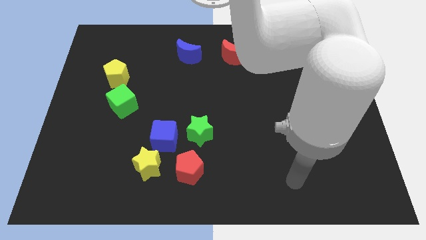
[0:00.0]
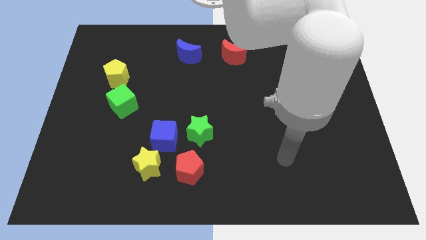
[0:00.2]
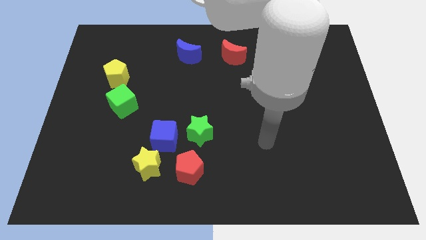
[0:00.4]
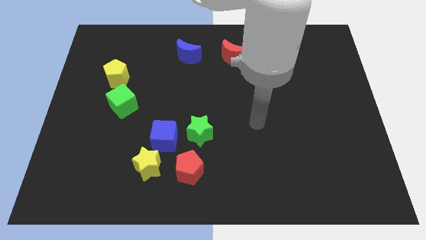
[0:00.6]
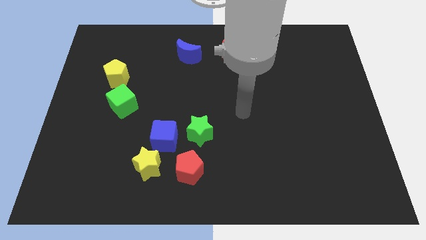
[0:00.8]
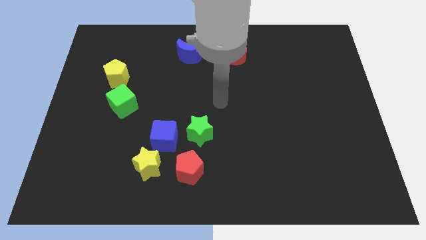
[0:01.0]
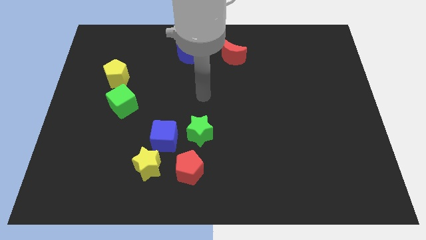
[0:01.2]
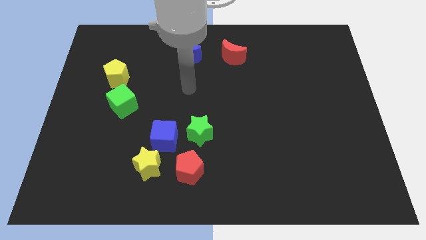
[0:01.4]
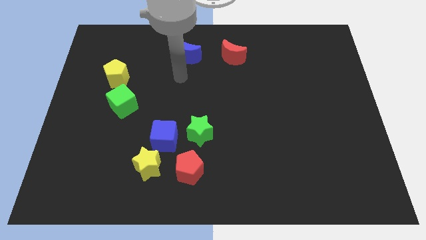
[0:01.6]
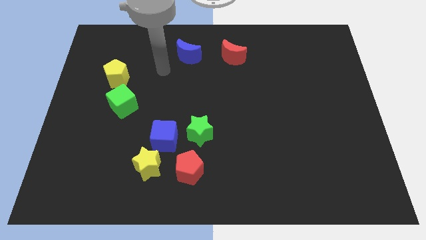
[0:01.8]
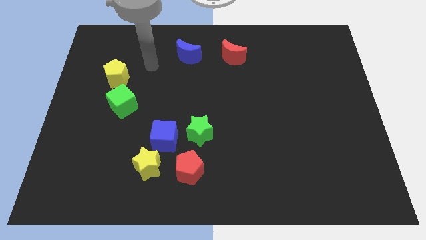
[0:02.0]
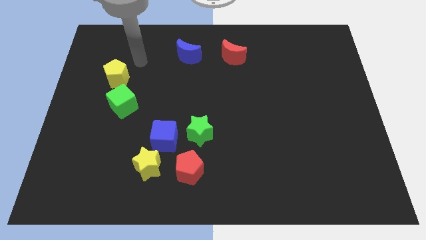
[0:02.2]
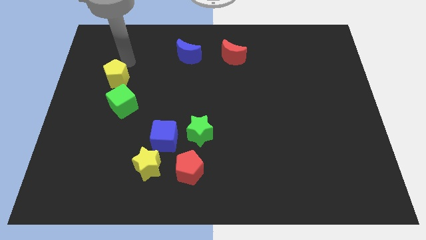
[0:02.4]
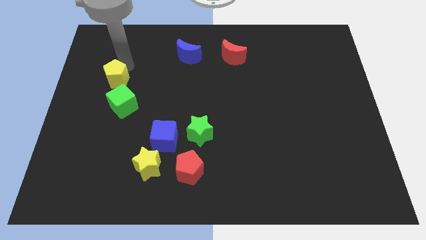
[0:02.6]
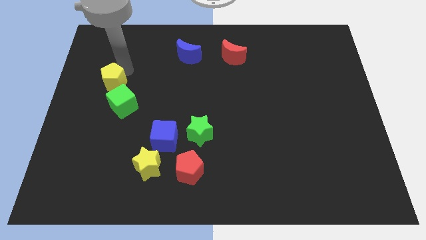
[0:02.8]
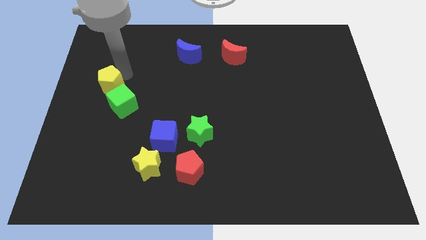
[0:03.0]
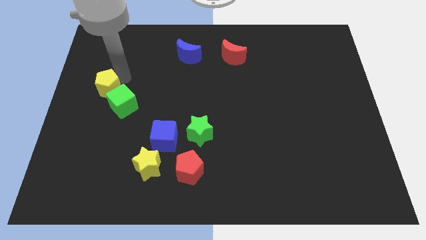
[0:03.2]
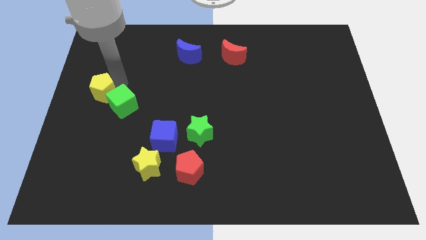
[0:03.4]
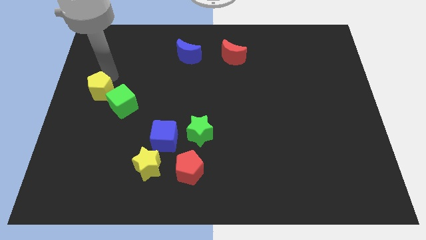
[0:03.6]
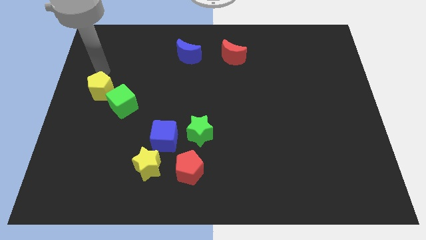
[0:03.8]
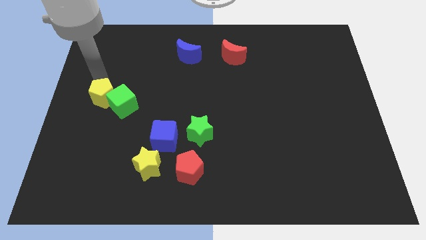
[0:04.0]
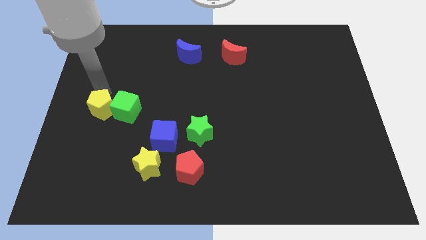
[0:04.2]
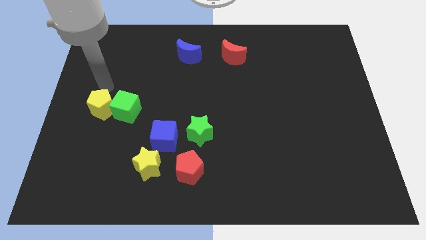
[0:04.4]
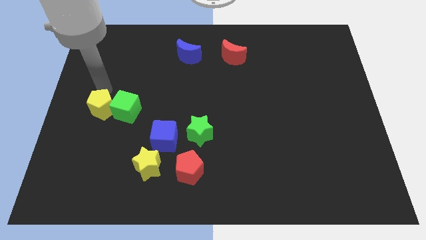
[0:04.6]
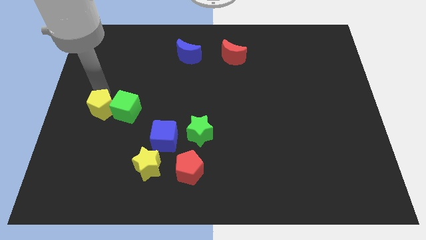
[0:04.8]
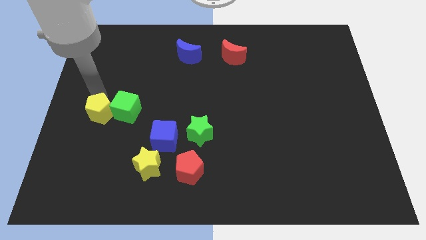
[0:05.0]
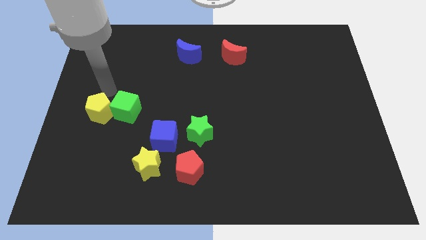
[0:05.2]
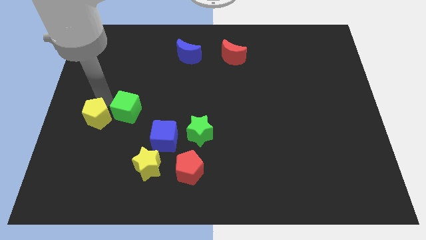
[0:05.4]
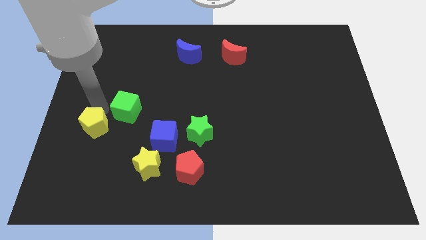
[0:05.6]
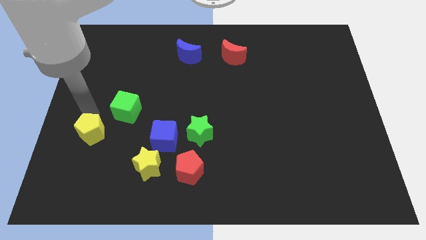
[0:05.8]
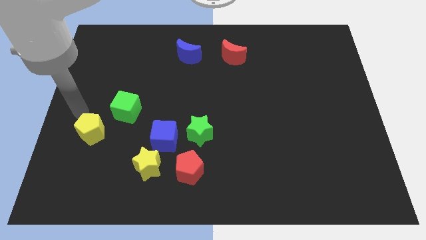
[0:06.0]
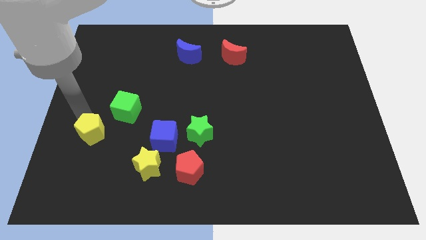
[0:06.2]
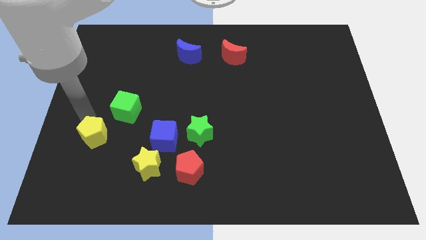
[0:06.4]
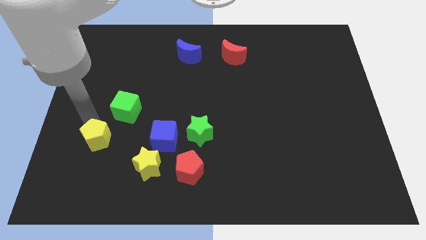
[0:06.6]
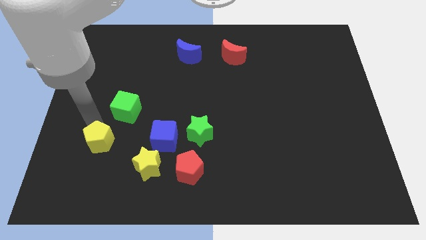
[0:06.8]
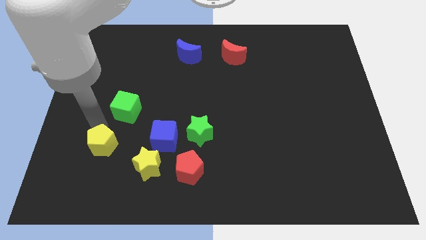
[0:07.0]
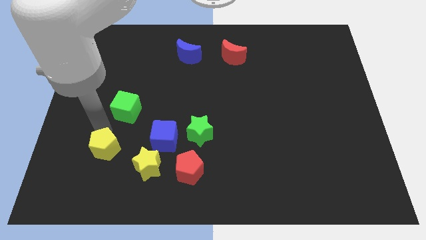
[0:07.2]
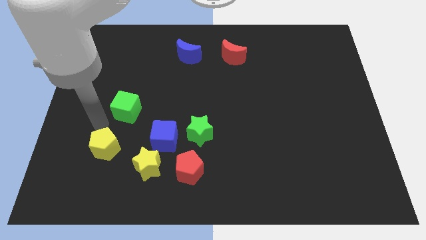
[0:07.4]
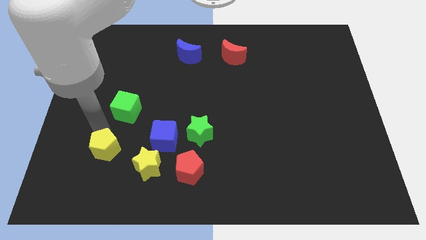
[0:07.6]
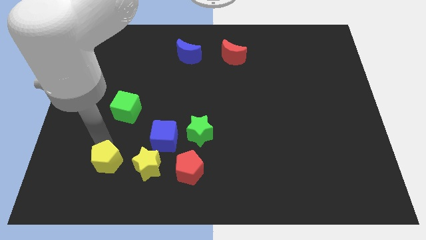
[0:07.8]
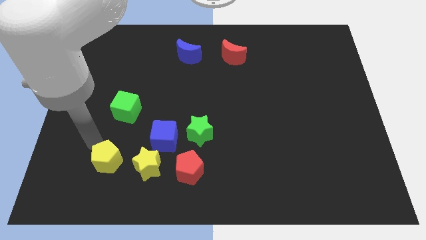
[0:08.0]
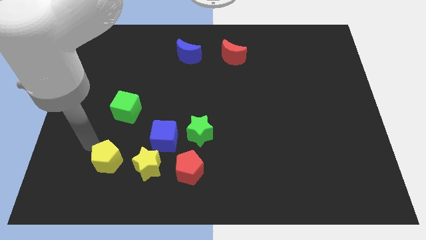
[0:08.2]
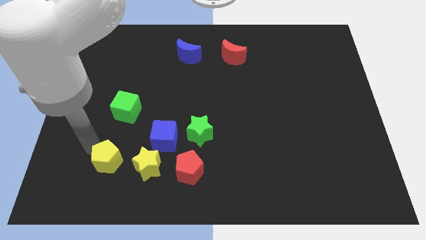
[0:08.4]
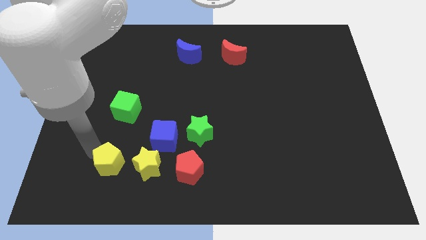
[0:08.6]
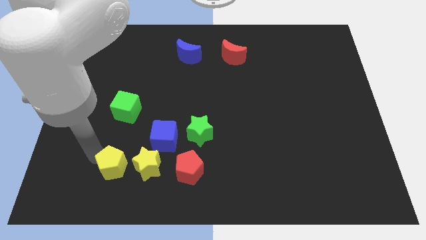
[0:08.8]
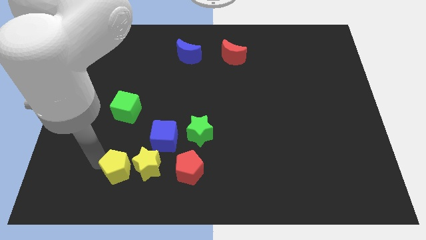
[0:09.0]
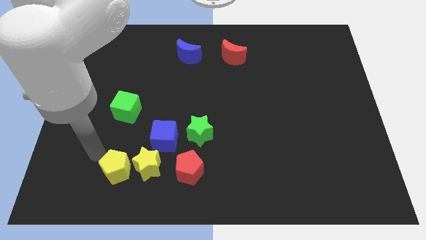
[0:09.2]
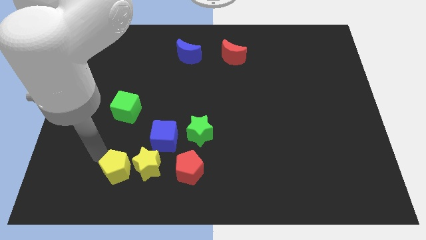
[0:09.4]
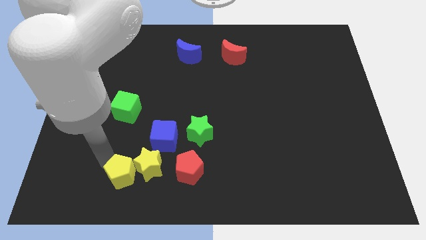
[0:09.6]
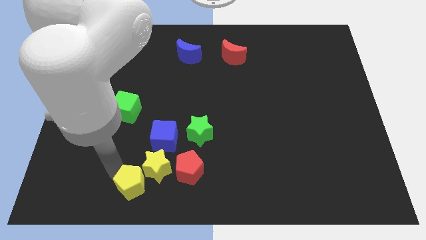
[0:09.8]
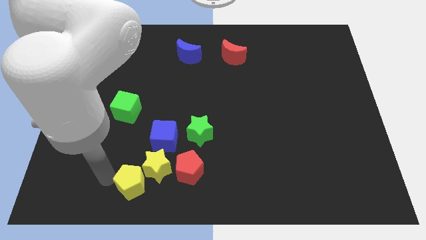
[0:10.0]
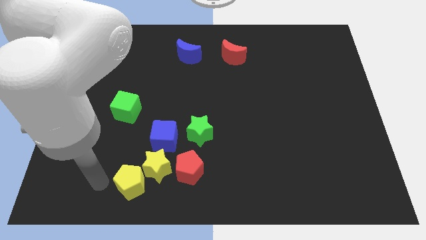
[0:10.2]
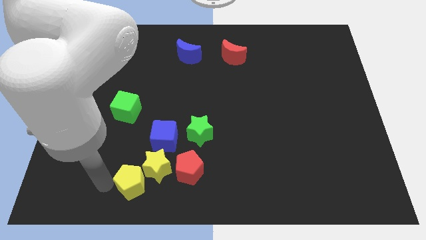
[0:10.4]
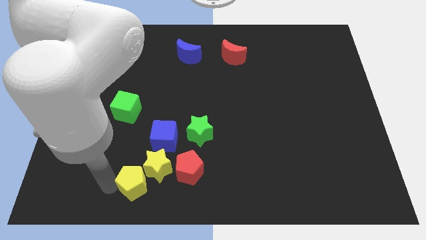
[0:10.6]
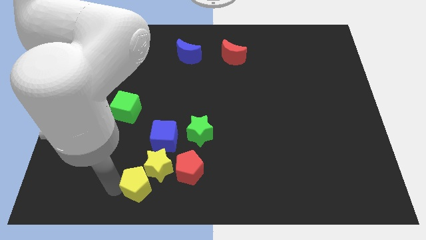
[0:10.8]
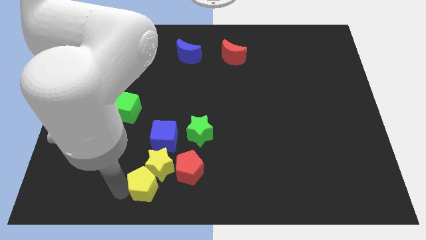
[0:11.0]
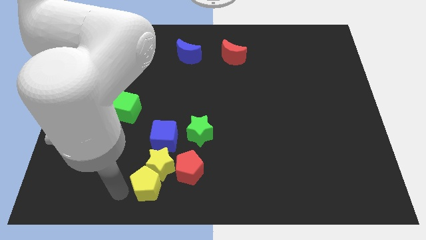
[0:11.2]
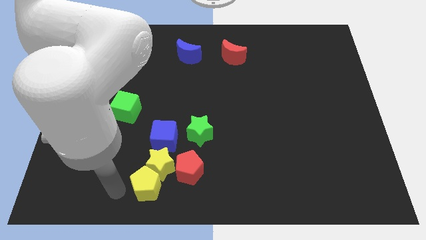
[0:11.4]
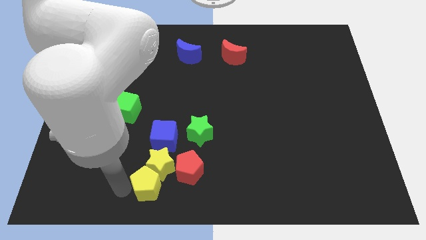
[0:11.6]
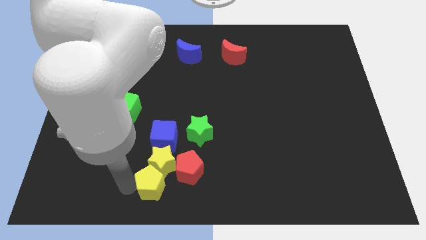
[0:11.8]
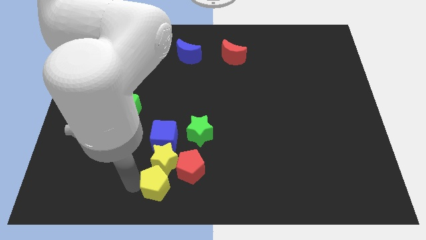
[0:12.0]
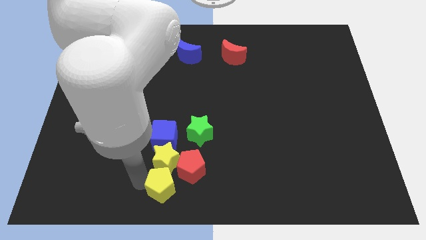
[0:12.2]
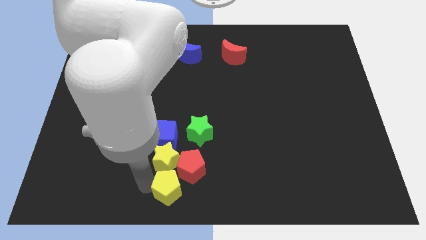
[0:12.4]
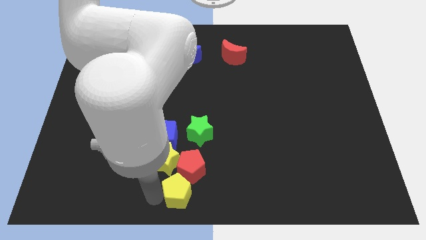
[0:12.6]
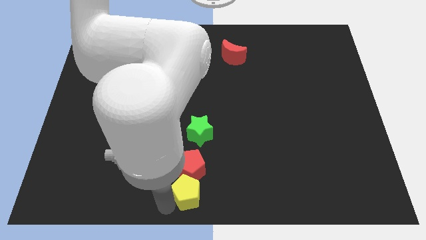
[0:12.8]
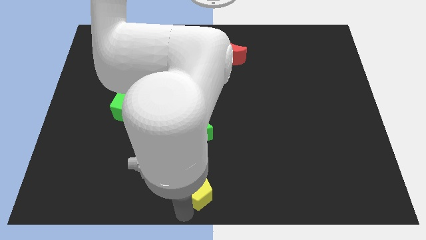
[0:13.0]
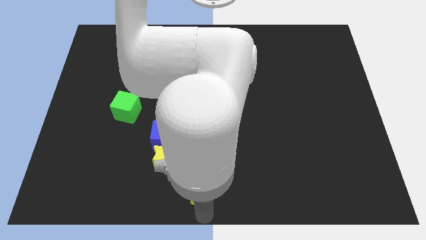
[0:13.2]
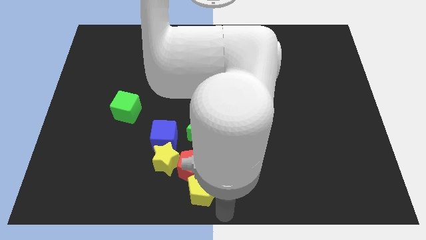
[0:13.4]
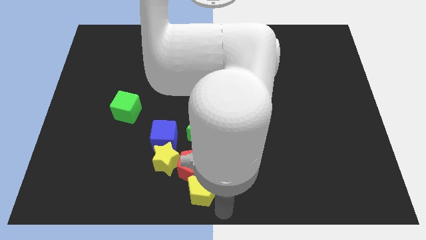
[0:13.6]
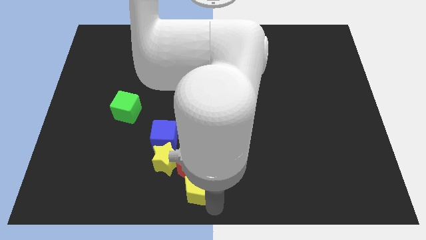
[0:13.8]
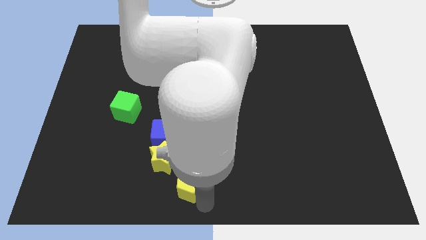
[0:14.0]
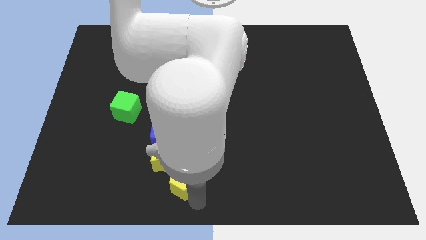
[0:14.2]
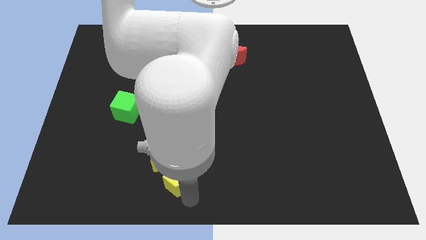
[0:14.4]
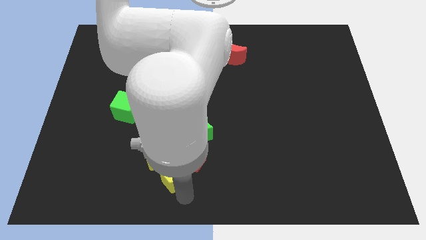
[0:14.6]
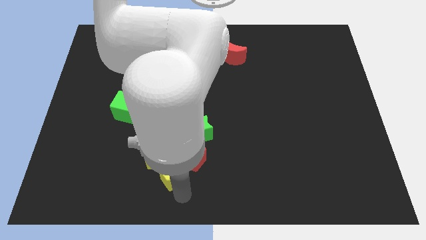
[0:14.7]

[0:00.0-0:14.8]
slide the yellow pentagon to the bottom left side of the green star
